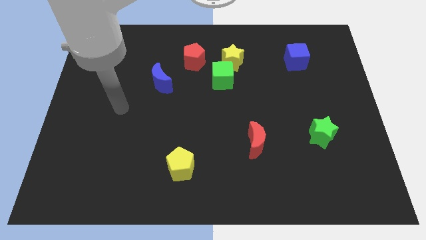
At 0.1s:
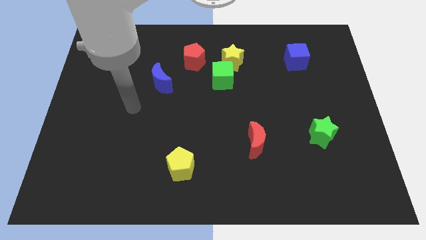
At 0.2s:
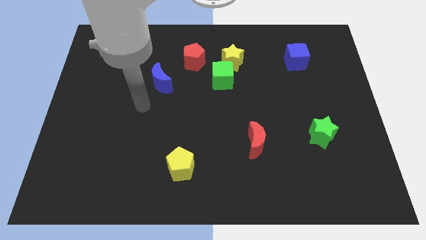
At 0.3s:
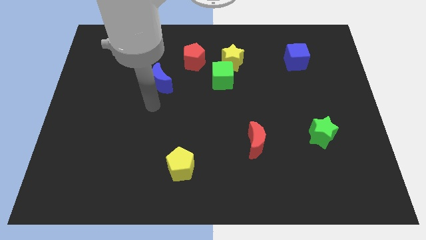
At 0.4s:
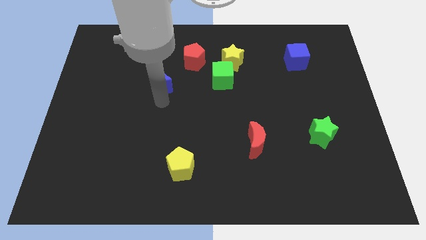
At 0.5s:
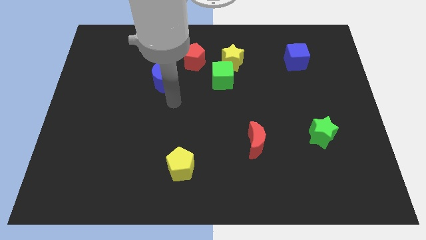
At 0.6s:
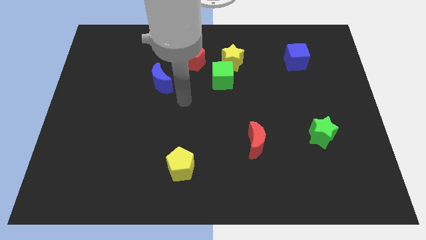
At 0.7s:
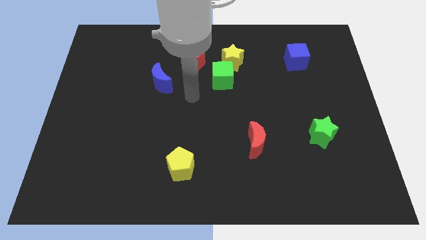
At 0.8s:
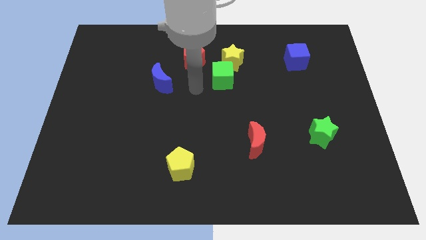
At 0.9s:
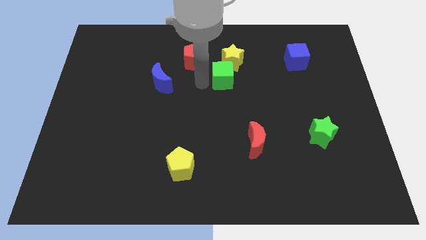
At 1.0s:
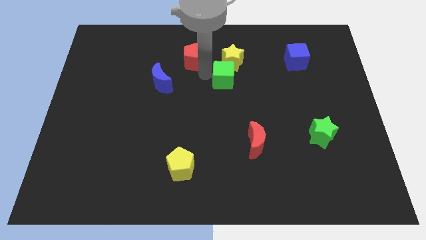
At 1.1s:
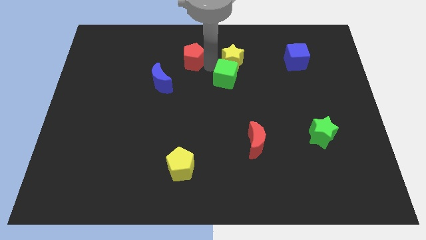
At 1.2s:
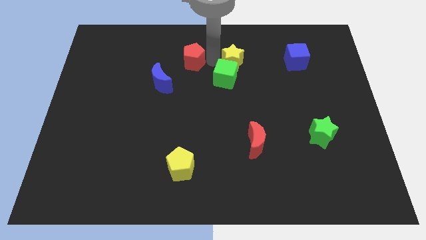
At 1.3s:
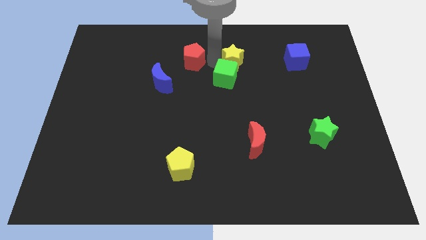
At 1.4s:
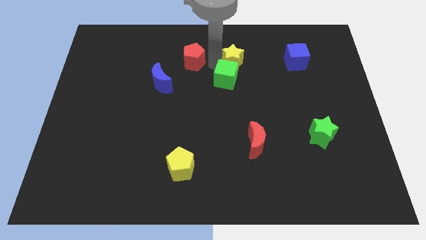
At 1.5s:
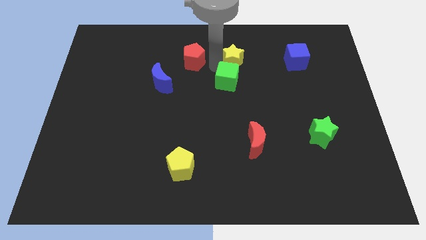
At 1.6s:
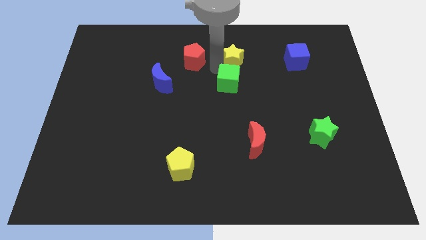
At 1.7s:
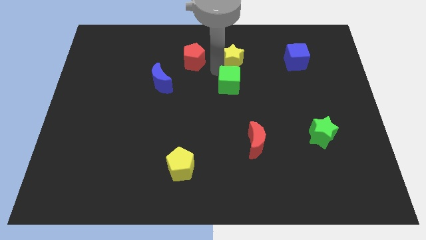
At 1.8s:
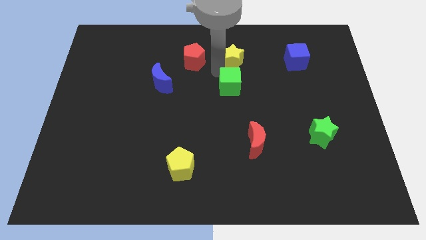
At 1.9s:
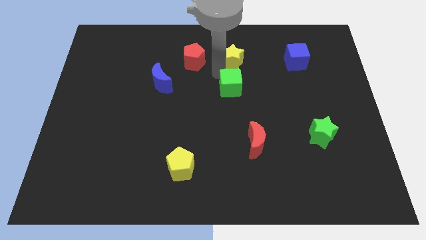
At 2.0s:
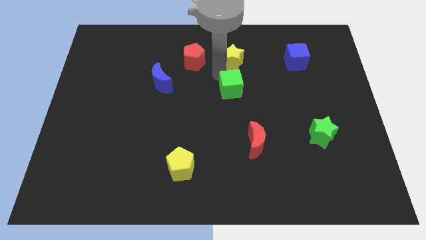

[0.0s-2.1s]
pull the green cube apart from the yellow star and red pentagon

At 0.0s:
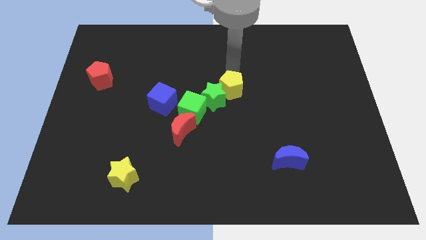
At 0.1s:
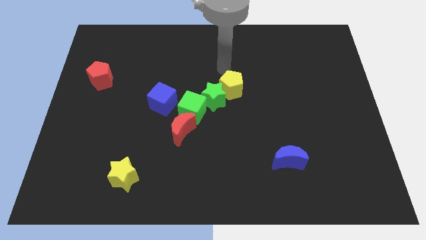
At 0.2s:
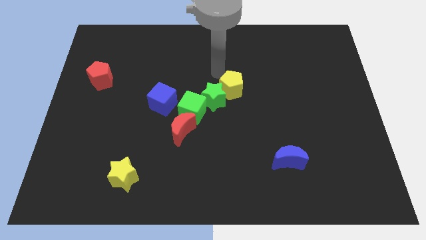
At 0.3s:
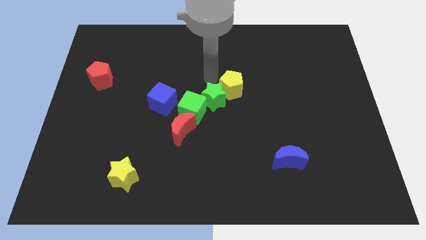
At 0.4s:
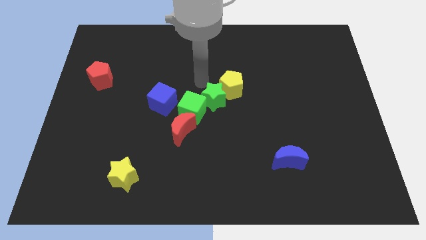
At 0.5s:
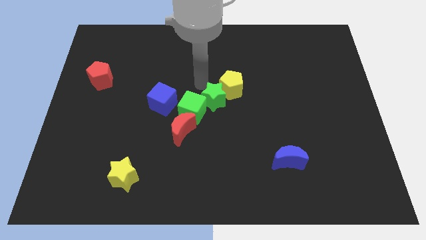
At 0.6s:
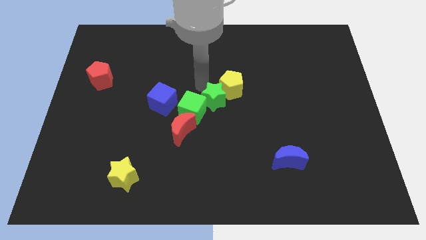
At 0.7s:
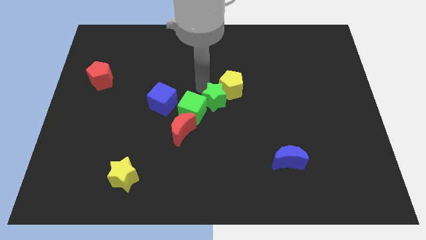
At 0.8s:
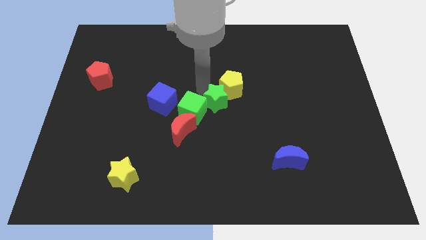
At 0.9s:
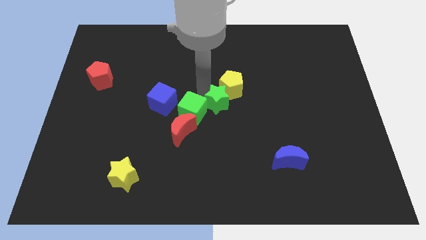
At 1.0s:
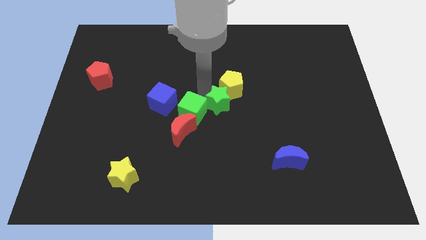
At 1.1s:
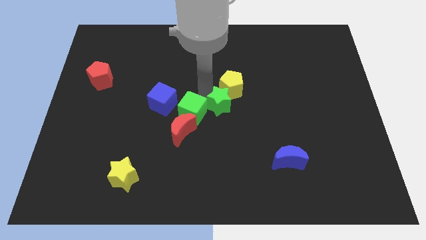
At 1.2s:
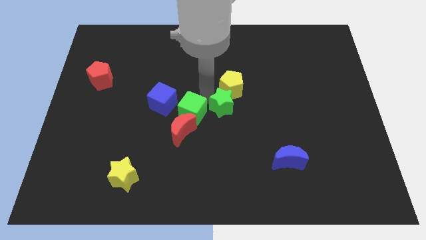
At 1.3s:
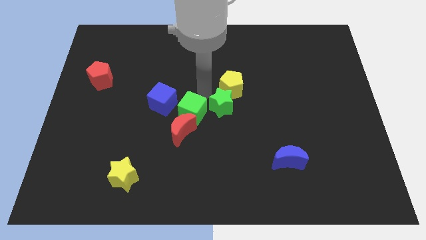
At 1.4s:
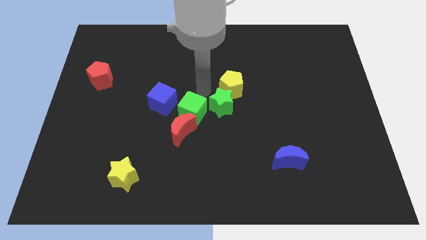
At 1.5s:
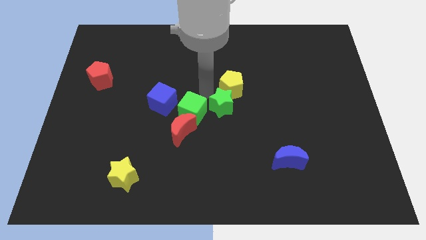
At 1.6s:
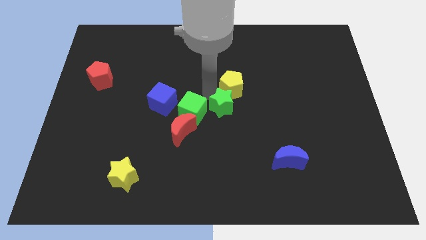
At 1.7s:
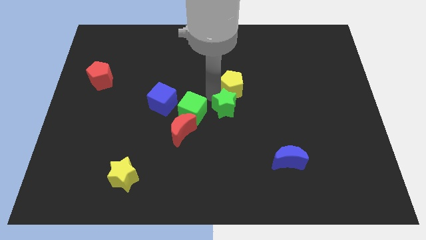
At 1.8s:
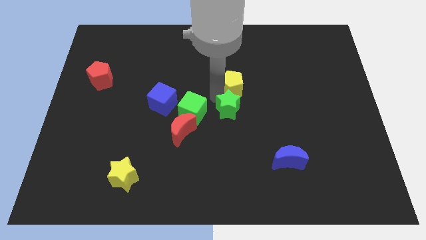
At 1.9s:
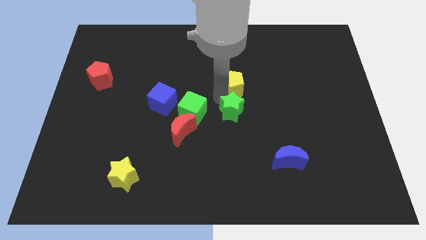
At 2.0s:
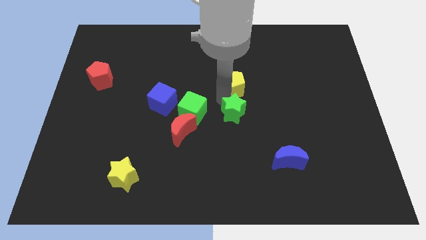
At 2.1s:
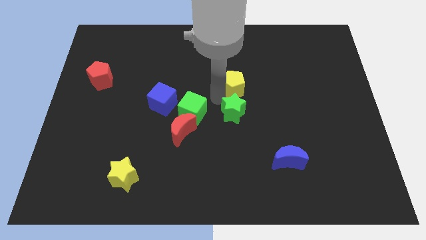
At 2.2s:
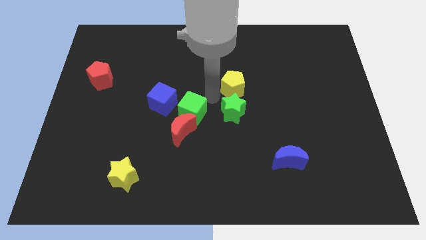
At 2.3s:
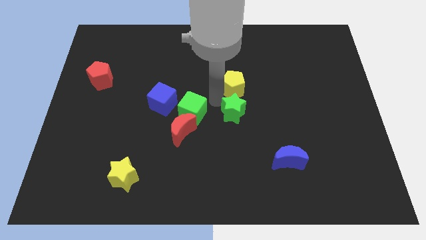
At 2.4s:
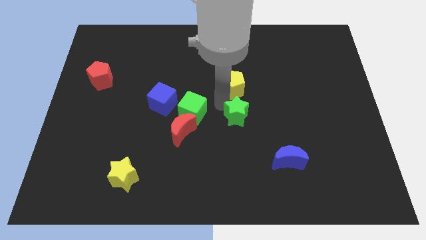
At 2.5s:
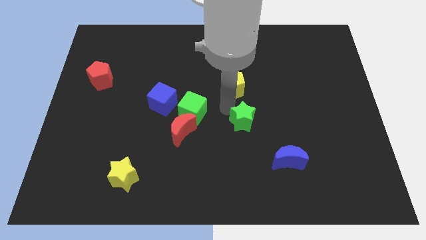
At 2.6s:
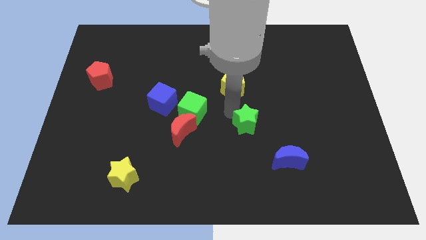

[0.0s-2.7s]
separate the green star from the green cube and yellow pentagon

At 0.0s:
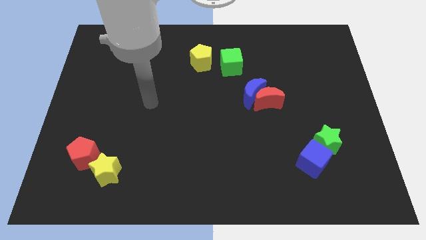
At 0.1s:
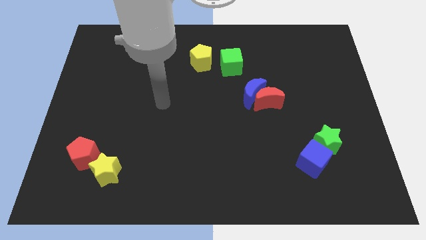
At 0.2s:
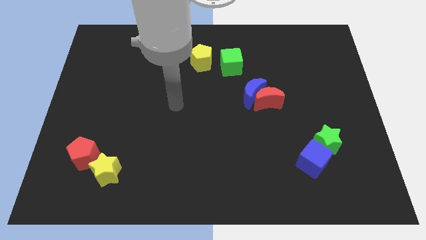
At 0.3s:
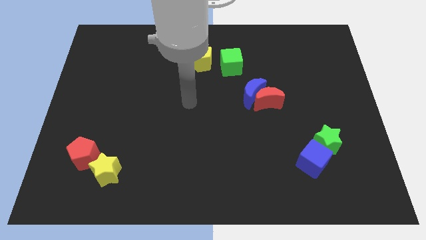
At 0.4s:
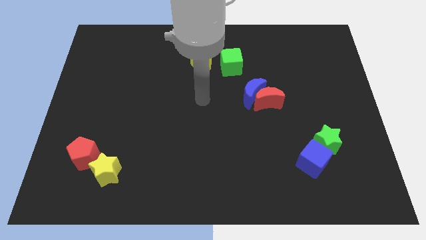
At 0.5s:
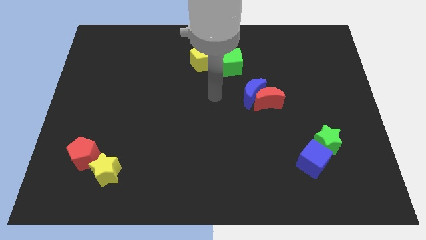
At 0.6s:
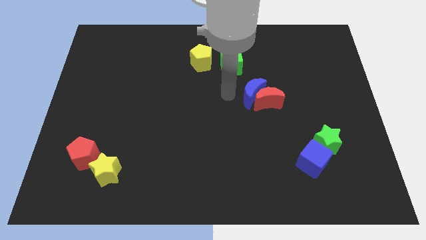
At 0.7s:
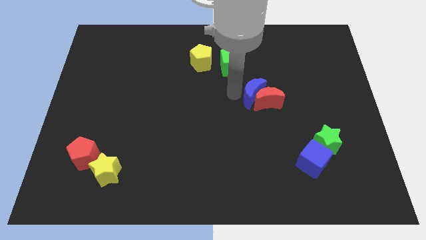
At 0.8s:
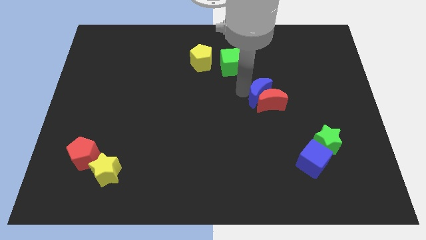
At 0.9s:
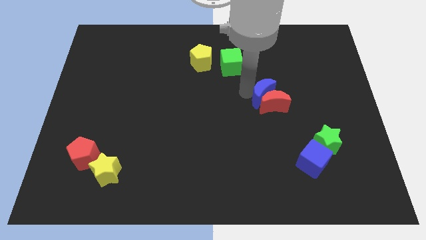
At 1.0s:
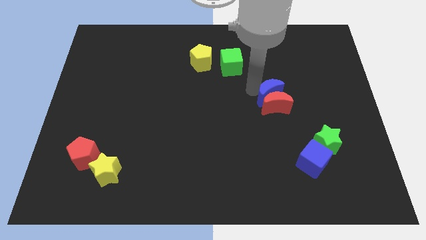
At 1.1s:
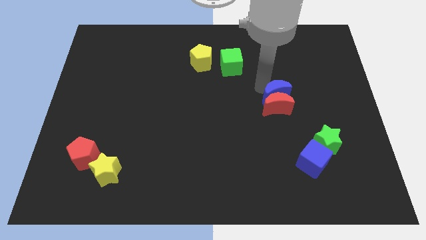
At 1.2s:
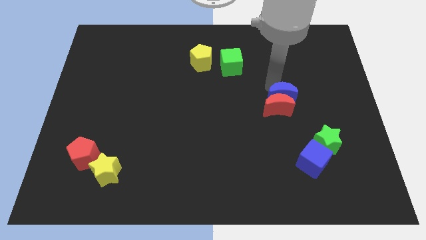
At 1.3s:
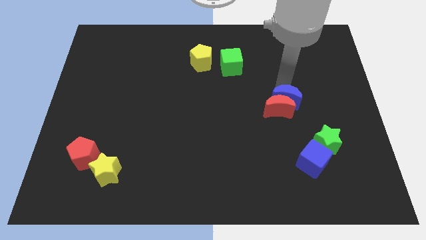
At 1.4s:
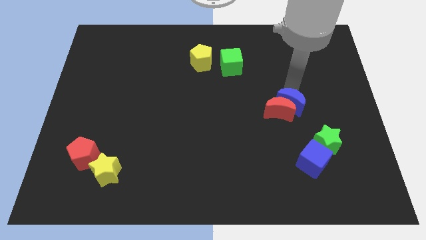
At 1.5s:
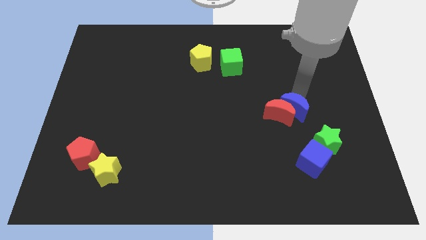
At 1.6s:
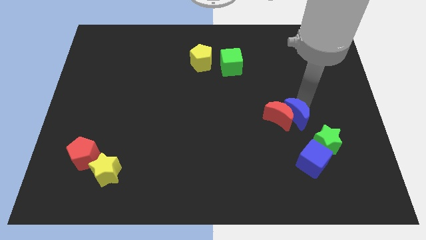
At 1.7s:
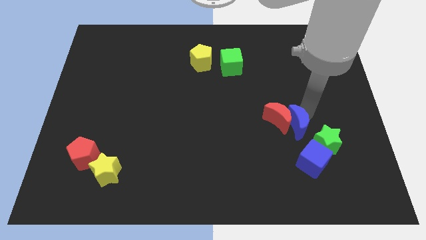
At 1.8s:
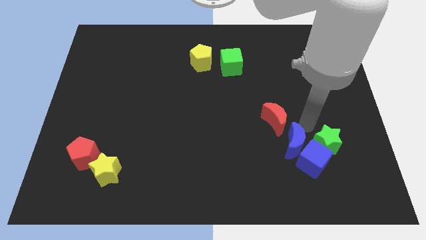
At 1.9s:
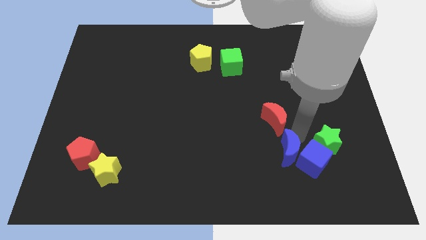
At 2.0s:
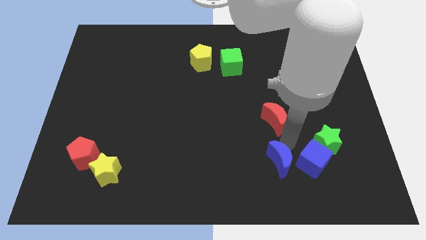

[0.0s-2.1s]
move the red moon away from the blue moon

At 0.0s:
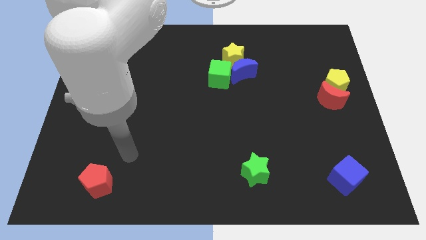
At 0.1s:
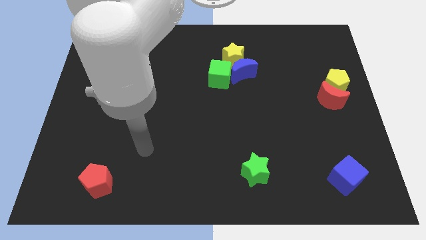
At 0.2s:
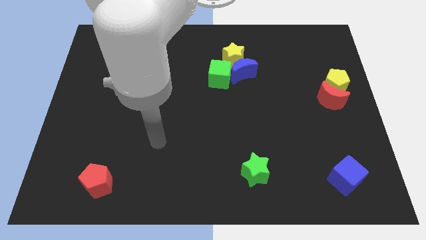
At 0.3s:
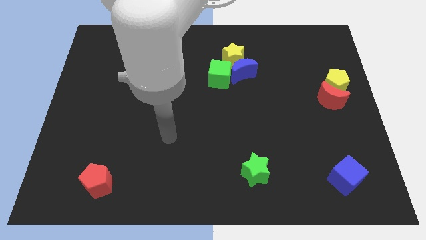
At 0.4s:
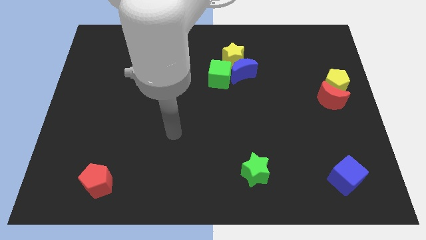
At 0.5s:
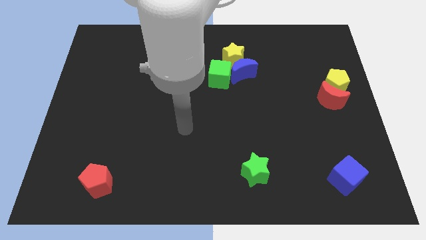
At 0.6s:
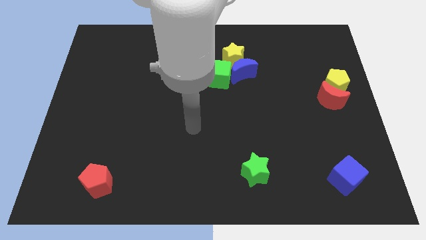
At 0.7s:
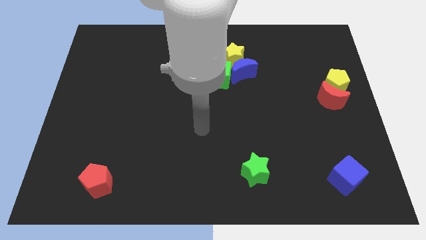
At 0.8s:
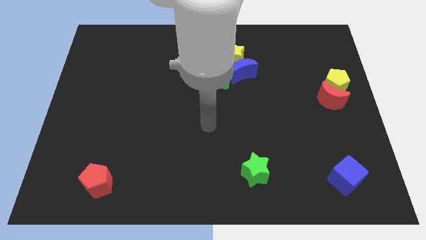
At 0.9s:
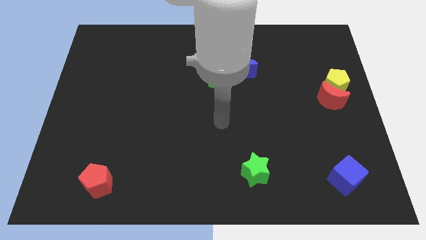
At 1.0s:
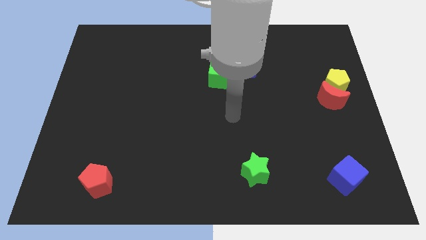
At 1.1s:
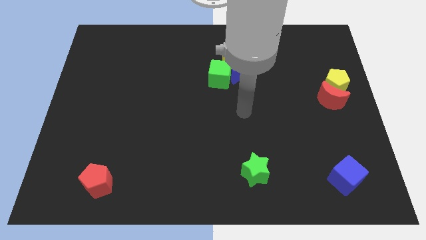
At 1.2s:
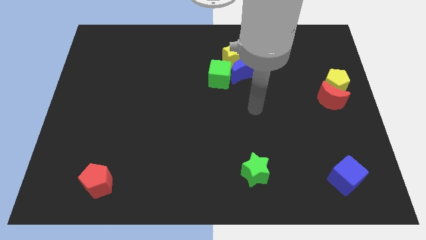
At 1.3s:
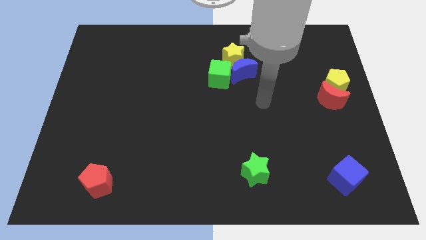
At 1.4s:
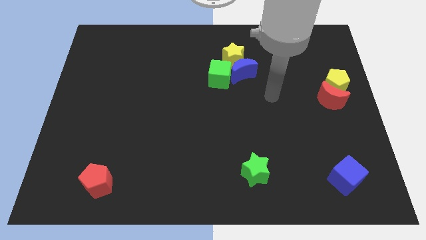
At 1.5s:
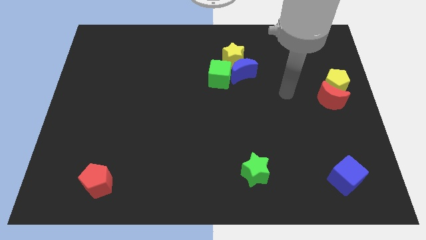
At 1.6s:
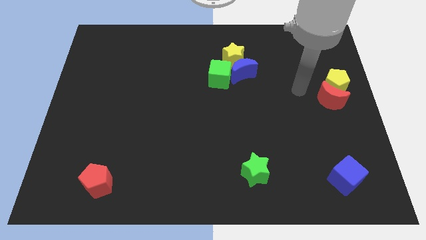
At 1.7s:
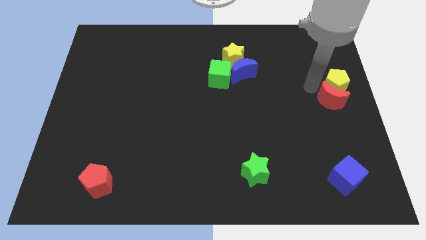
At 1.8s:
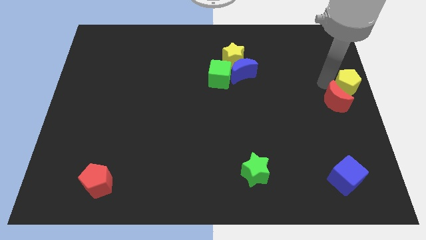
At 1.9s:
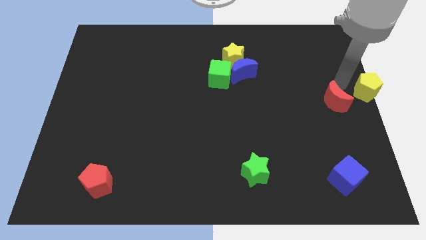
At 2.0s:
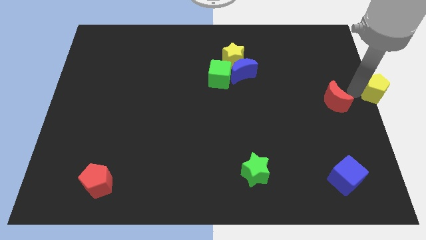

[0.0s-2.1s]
separate the red moon from the yellow pentagon

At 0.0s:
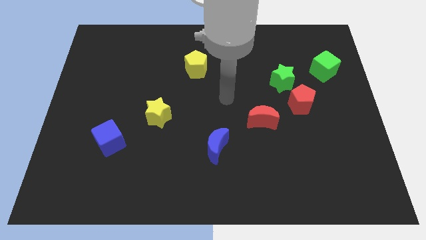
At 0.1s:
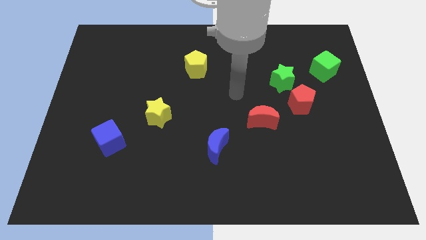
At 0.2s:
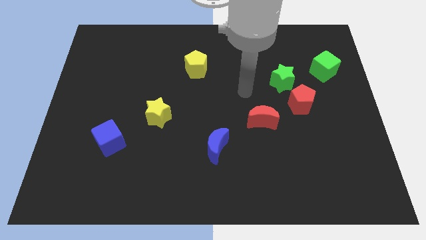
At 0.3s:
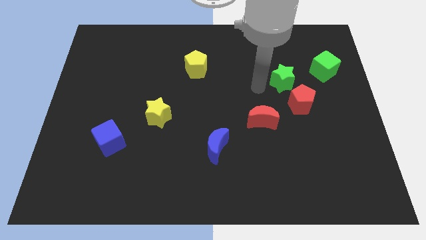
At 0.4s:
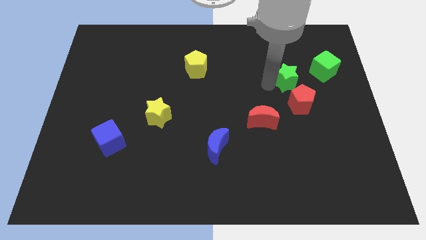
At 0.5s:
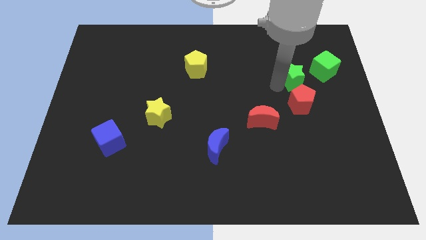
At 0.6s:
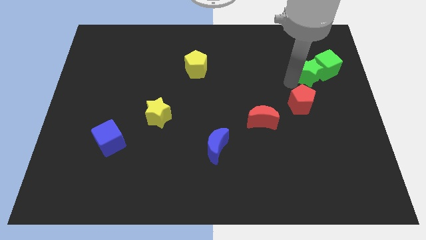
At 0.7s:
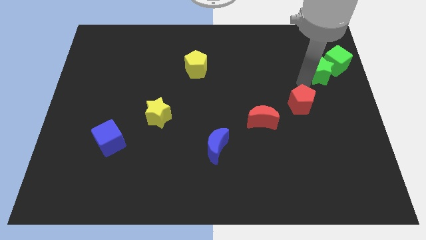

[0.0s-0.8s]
pull the red pentagon apart from the green star
